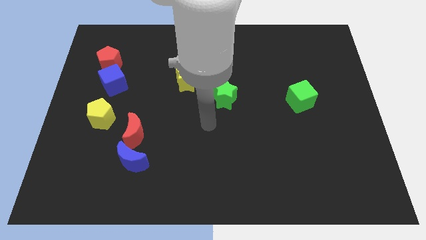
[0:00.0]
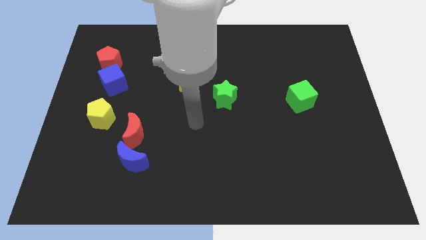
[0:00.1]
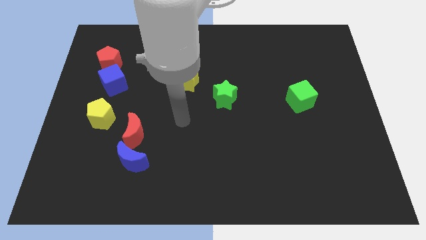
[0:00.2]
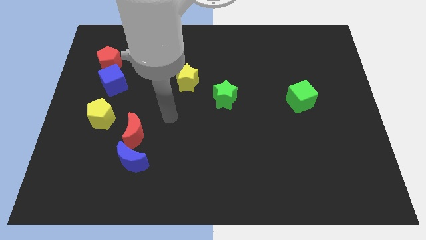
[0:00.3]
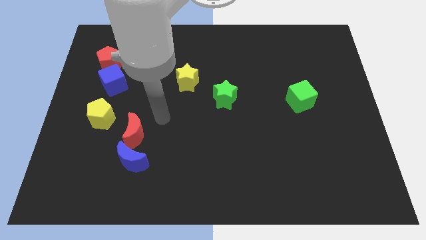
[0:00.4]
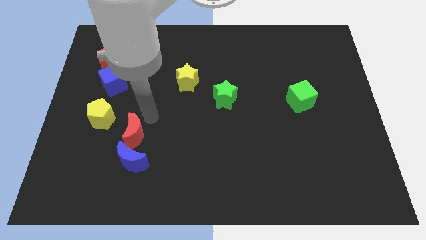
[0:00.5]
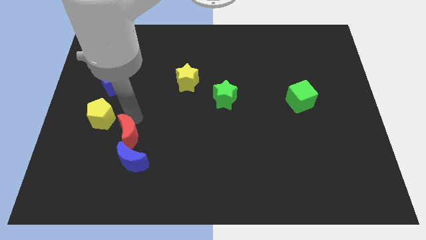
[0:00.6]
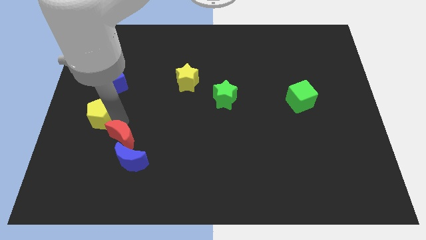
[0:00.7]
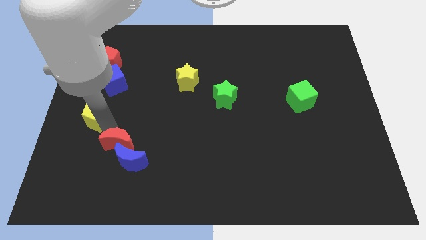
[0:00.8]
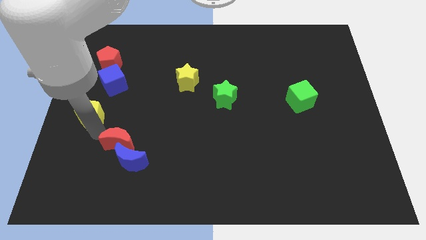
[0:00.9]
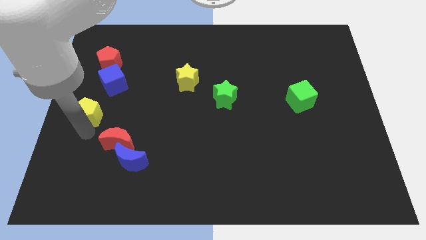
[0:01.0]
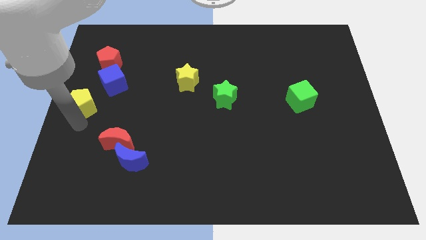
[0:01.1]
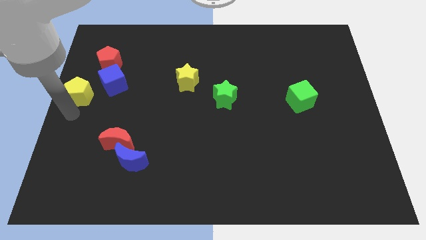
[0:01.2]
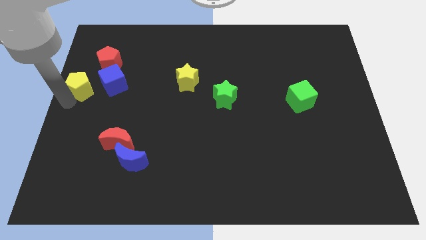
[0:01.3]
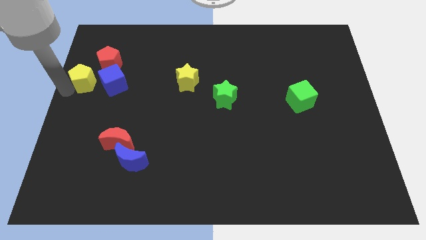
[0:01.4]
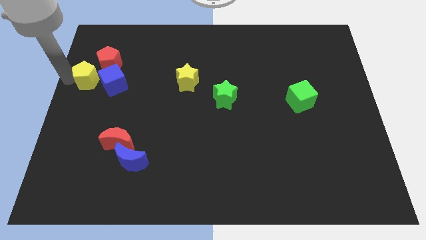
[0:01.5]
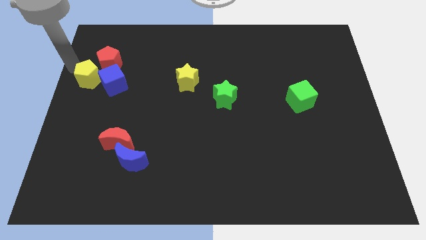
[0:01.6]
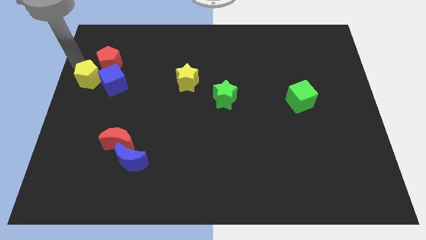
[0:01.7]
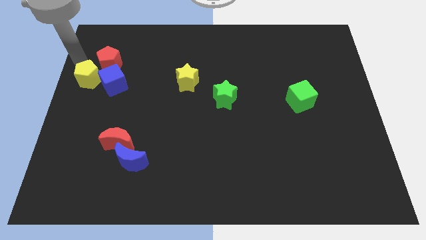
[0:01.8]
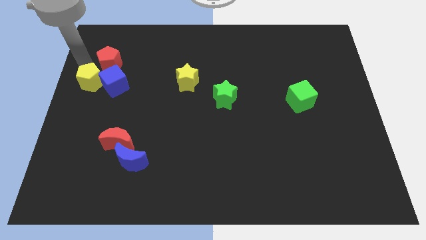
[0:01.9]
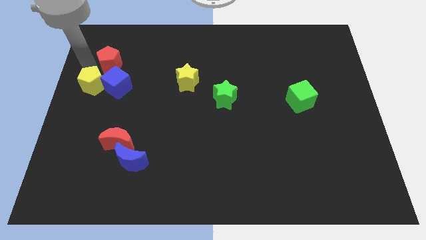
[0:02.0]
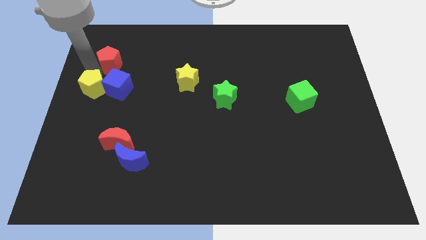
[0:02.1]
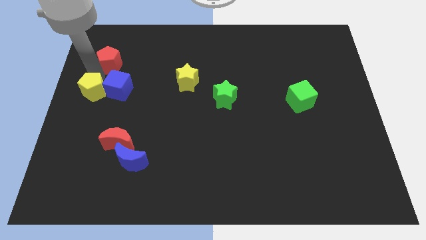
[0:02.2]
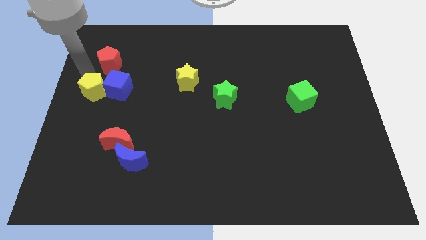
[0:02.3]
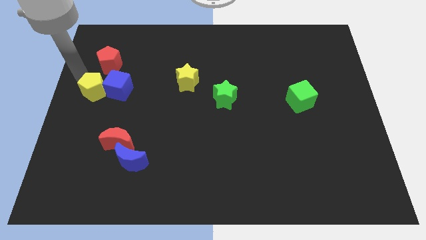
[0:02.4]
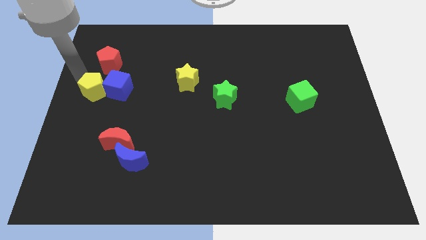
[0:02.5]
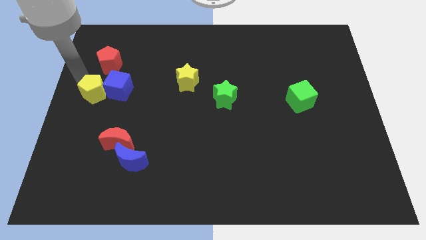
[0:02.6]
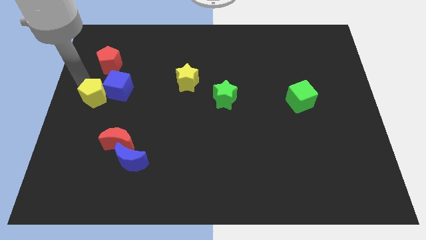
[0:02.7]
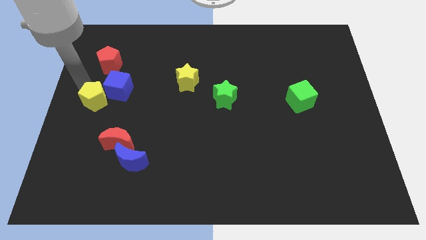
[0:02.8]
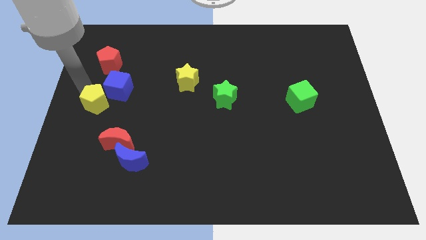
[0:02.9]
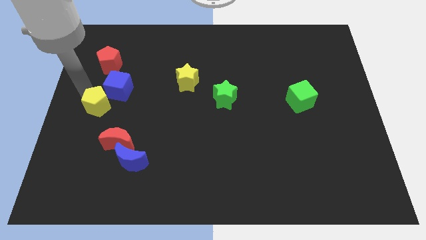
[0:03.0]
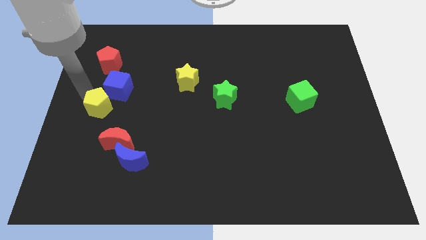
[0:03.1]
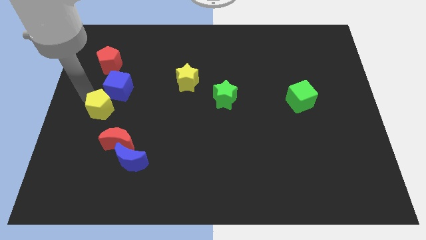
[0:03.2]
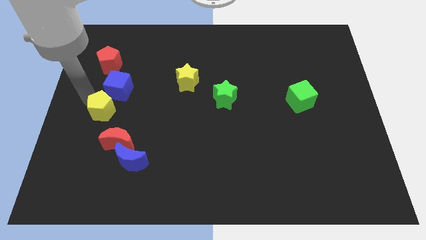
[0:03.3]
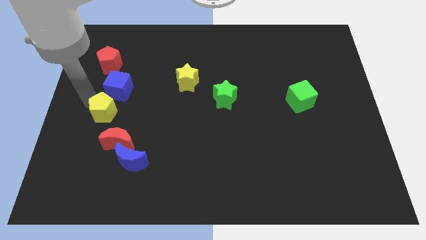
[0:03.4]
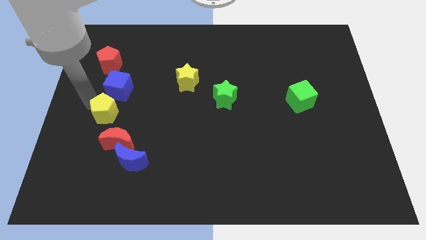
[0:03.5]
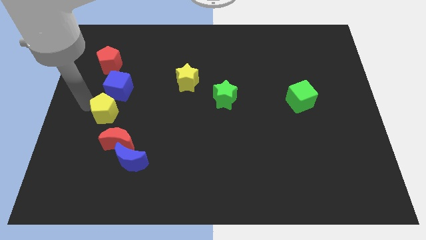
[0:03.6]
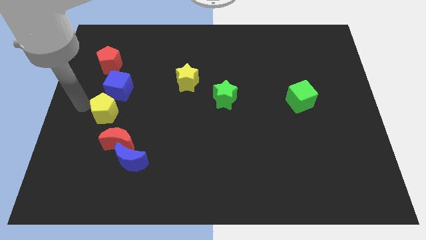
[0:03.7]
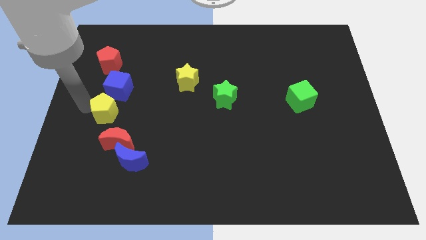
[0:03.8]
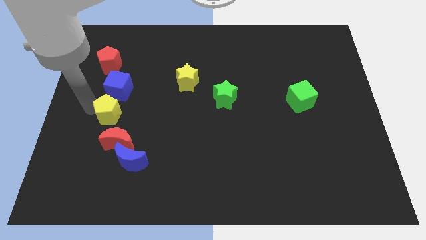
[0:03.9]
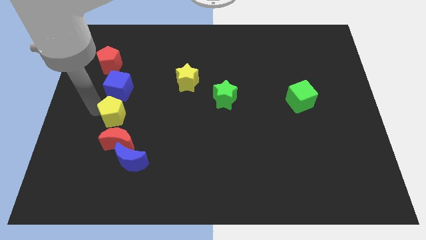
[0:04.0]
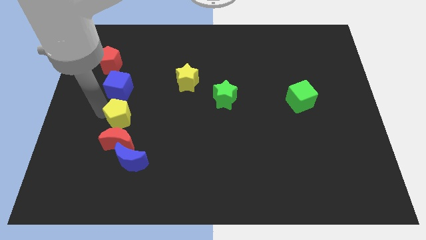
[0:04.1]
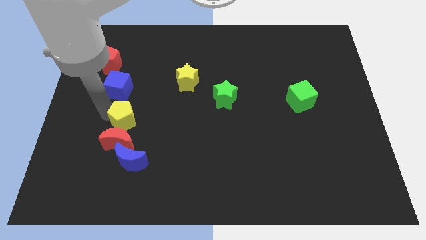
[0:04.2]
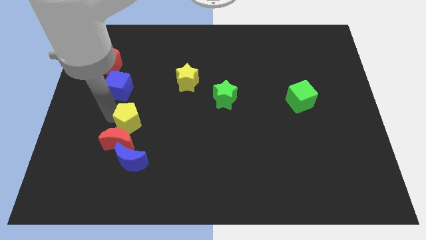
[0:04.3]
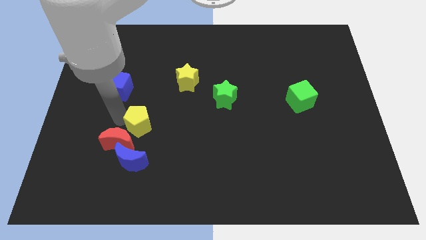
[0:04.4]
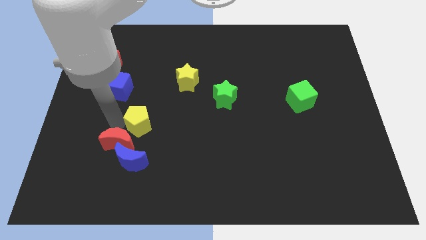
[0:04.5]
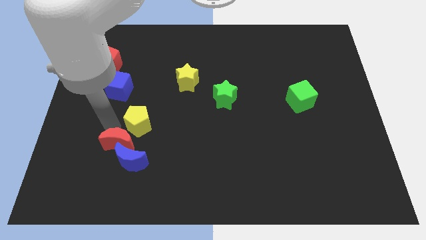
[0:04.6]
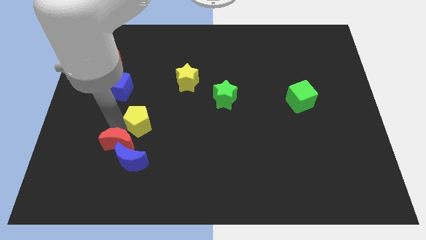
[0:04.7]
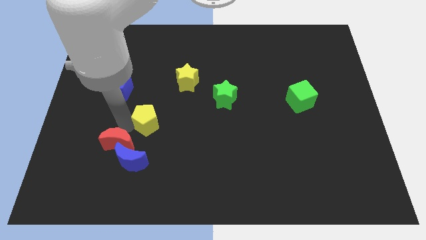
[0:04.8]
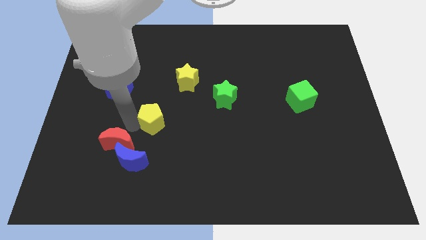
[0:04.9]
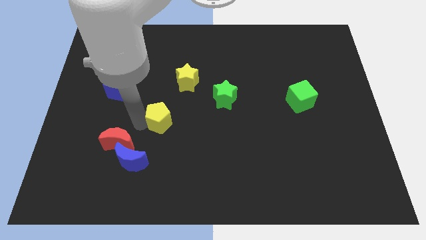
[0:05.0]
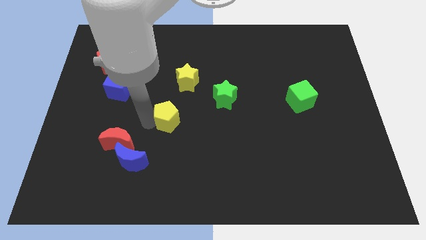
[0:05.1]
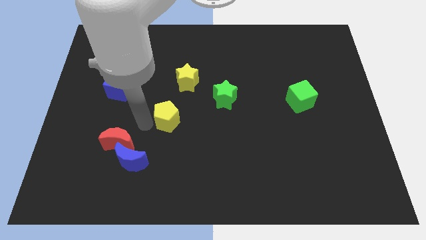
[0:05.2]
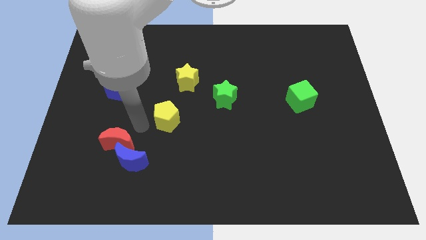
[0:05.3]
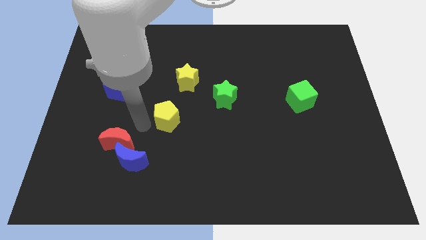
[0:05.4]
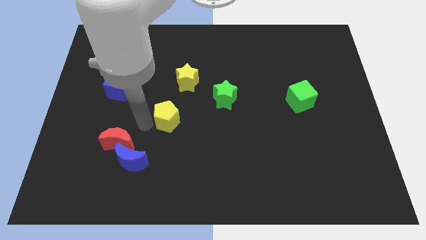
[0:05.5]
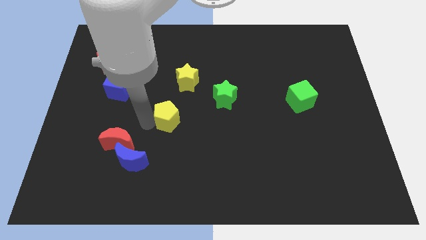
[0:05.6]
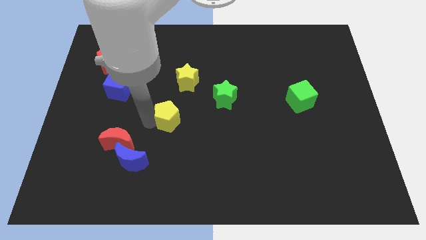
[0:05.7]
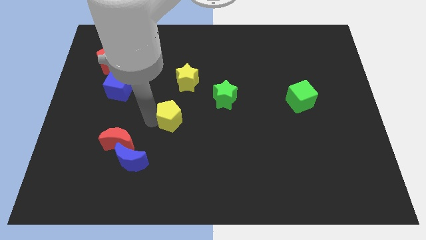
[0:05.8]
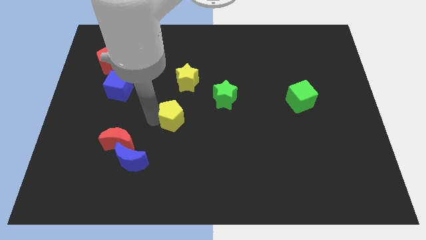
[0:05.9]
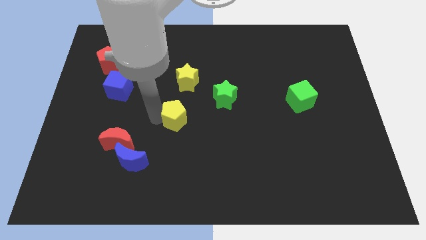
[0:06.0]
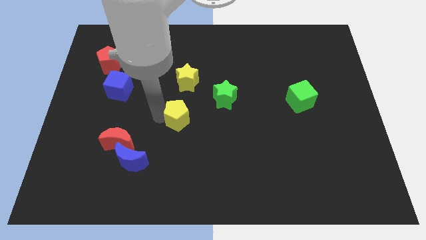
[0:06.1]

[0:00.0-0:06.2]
move the yellow pentagon diagonally down and to the left of the green star

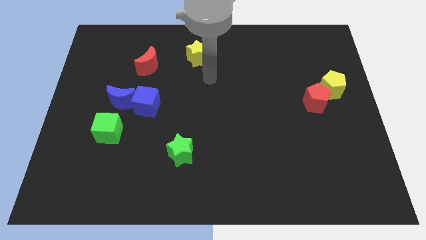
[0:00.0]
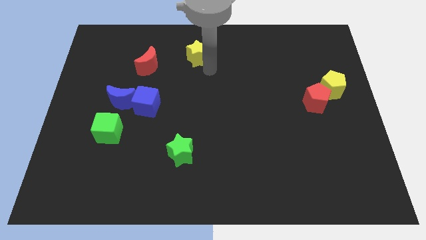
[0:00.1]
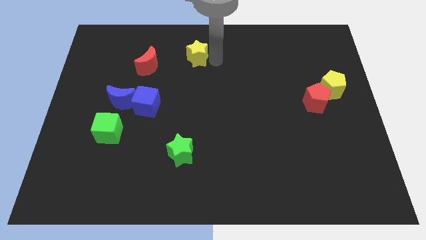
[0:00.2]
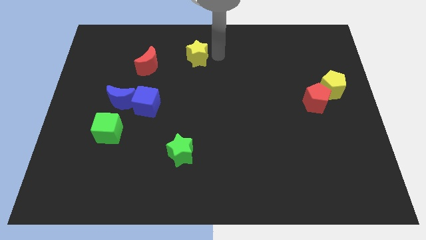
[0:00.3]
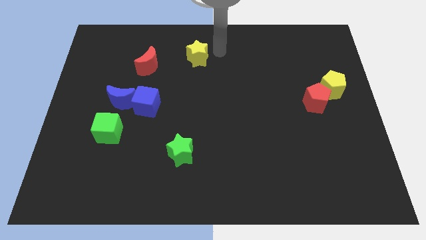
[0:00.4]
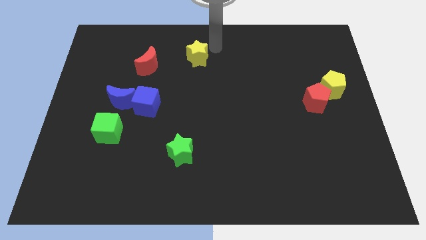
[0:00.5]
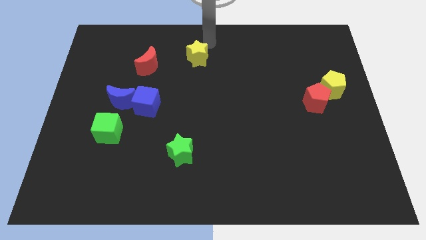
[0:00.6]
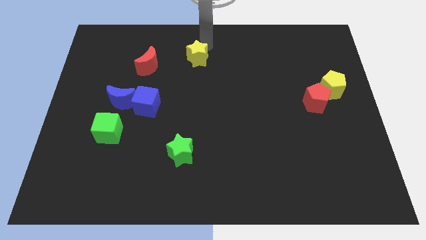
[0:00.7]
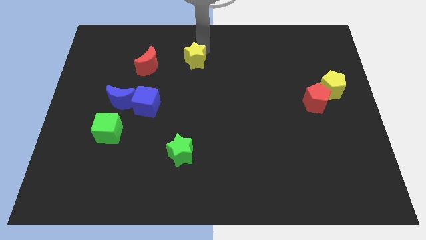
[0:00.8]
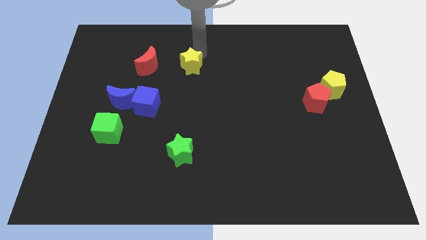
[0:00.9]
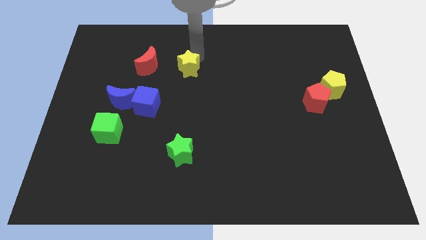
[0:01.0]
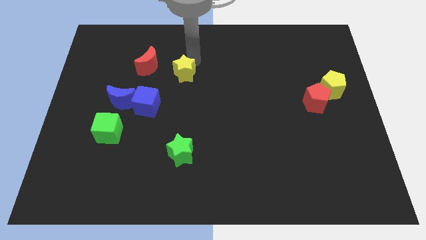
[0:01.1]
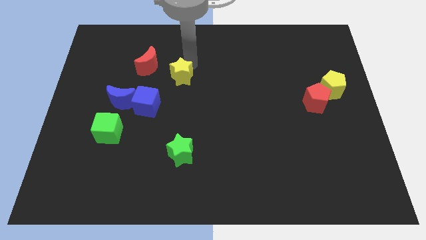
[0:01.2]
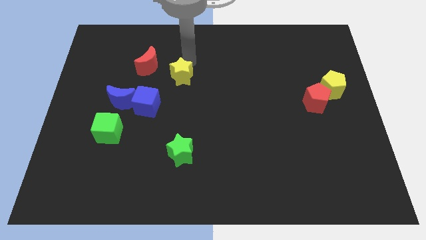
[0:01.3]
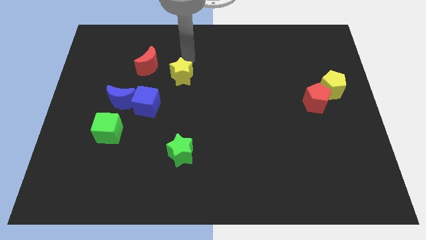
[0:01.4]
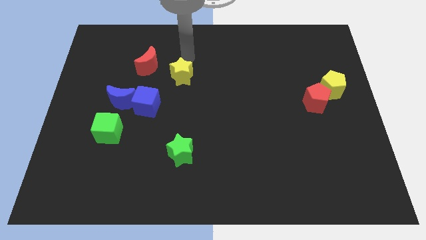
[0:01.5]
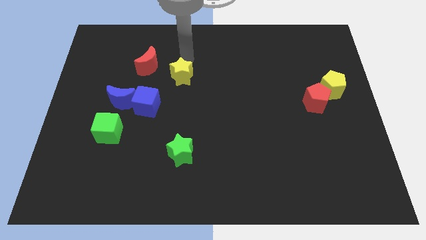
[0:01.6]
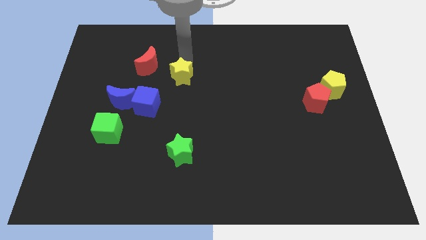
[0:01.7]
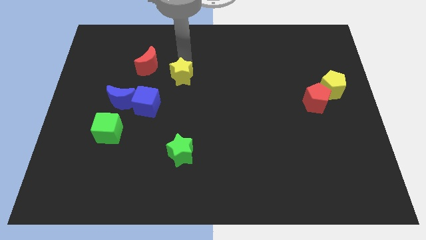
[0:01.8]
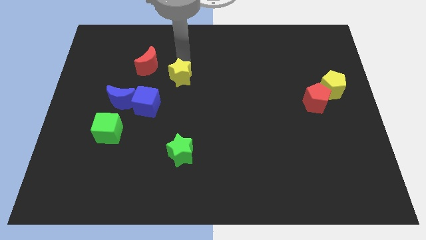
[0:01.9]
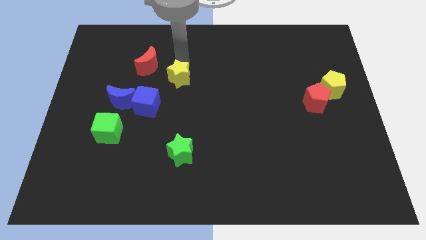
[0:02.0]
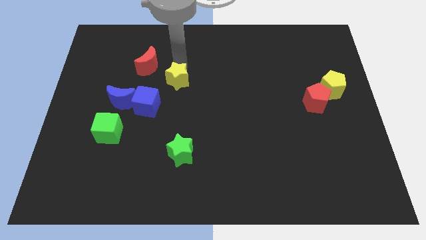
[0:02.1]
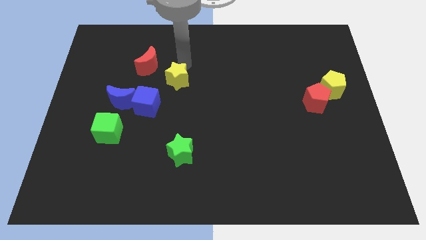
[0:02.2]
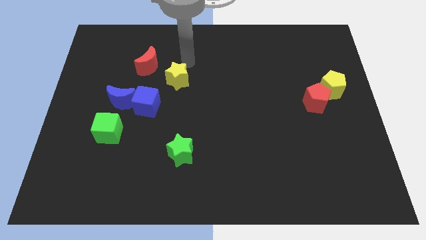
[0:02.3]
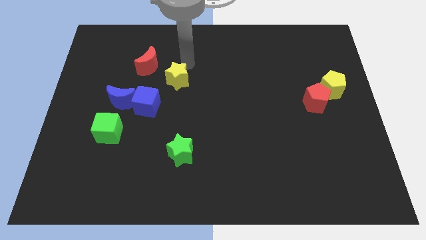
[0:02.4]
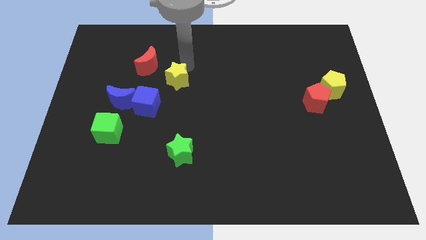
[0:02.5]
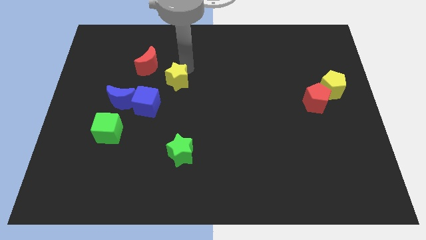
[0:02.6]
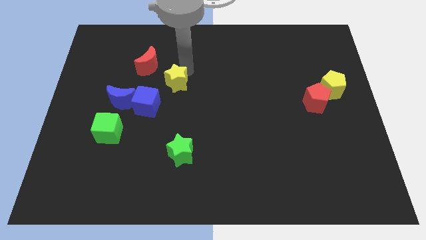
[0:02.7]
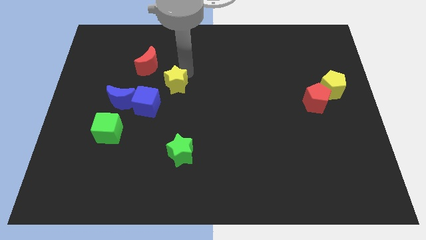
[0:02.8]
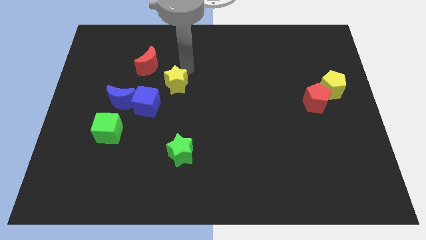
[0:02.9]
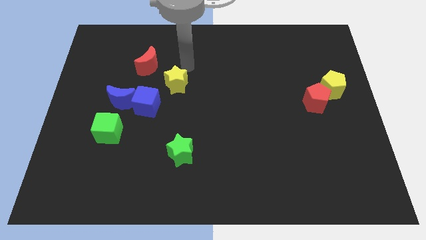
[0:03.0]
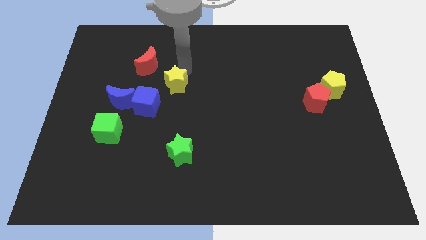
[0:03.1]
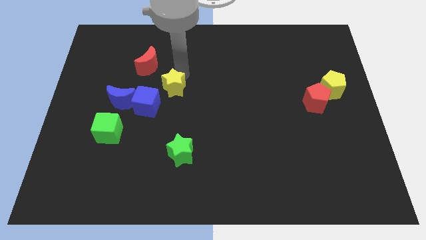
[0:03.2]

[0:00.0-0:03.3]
move the yellow star to the right of the blue moon
